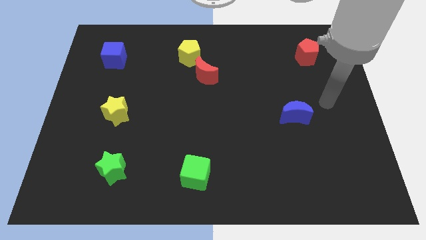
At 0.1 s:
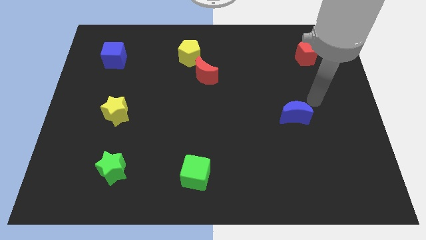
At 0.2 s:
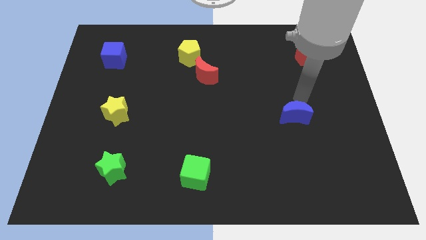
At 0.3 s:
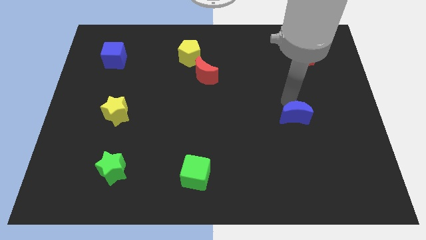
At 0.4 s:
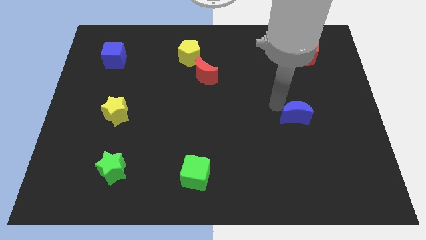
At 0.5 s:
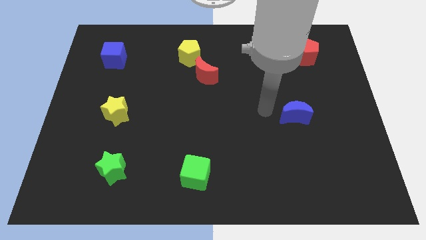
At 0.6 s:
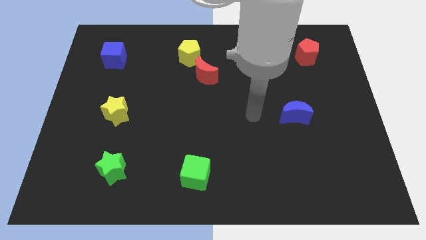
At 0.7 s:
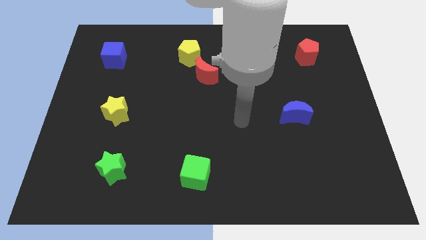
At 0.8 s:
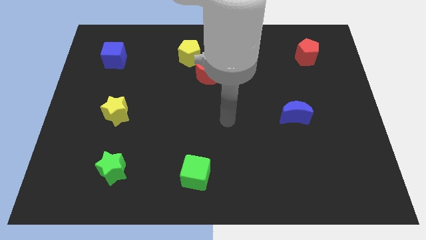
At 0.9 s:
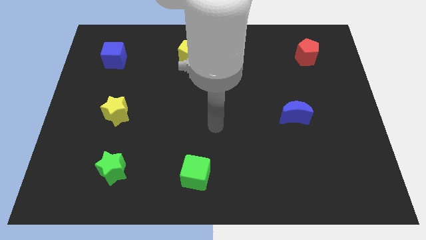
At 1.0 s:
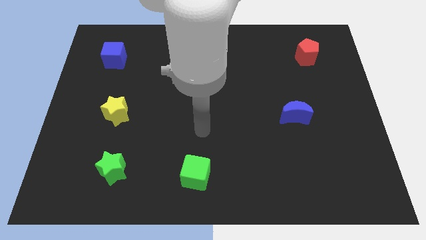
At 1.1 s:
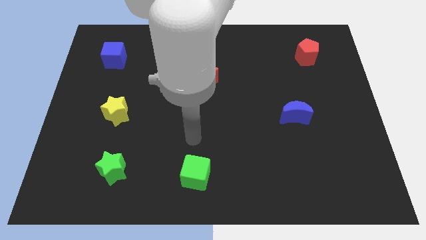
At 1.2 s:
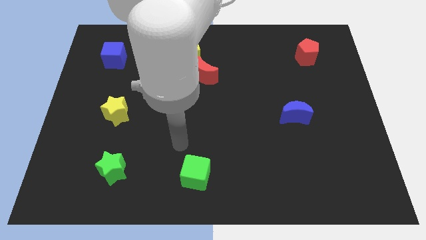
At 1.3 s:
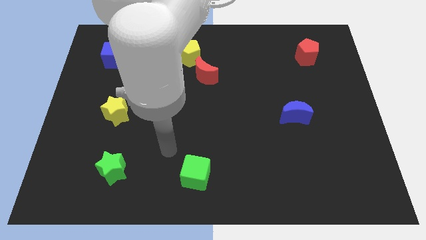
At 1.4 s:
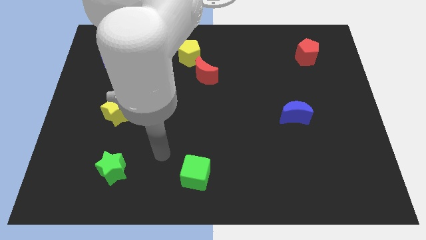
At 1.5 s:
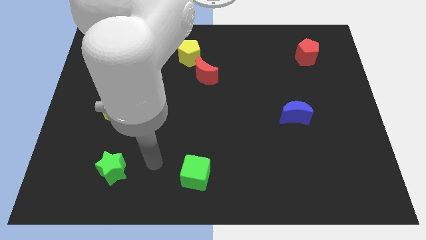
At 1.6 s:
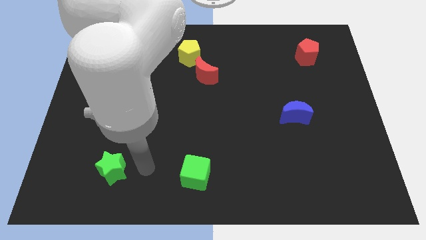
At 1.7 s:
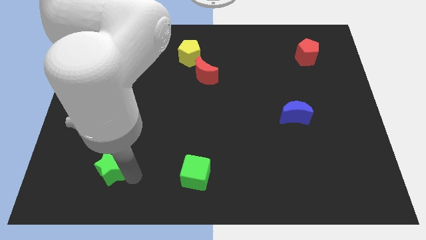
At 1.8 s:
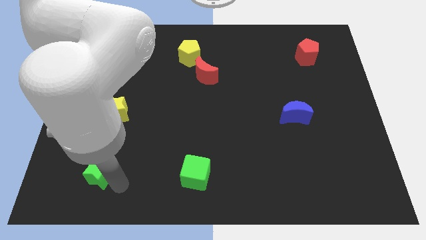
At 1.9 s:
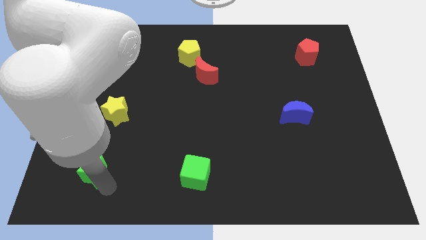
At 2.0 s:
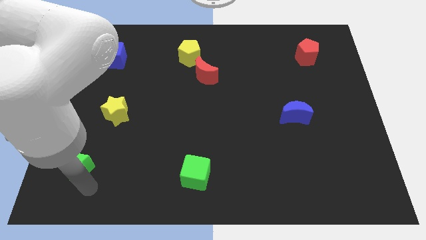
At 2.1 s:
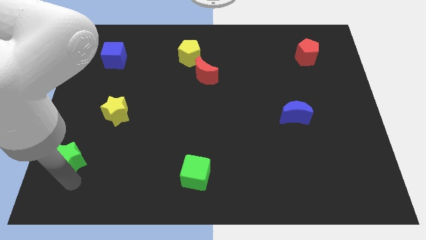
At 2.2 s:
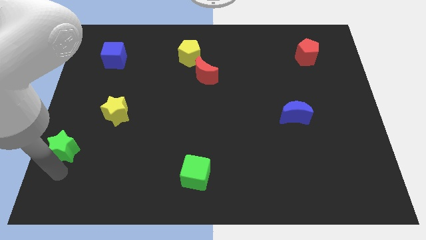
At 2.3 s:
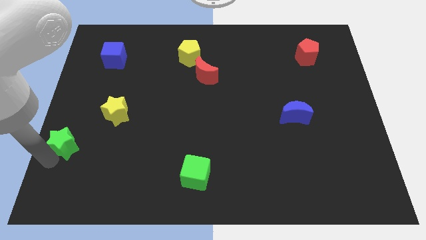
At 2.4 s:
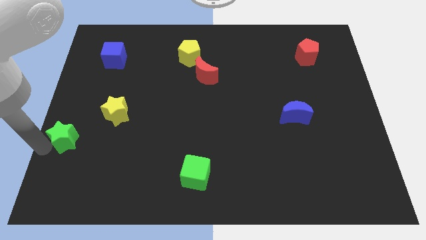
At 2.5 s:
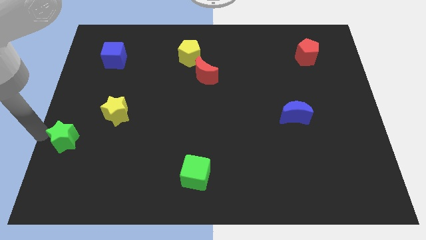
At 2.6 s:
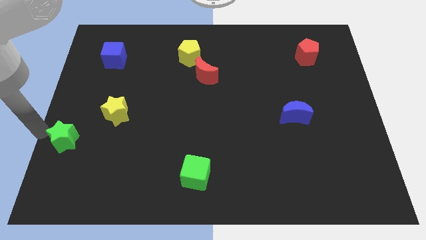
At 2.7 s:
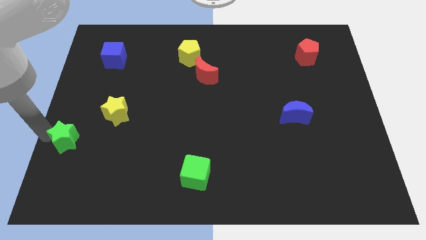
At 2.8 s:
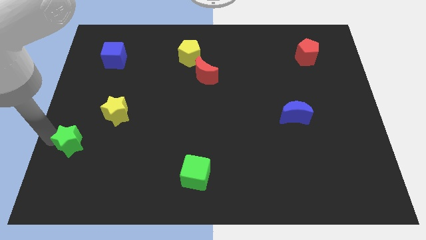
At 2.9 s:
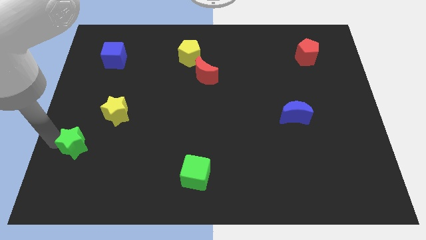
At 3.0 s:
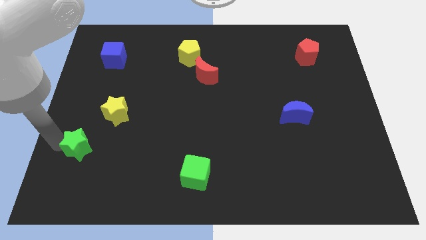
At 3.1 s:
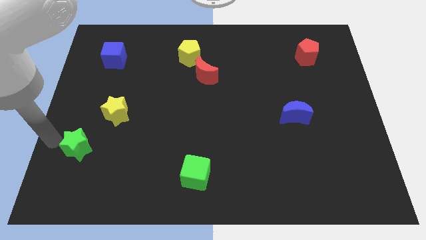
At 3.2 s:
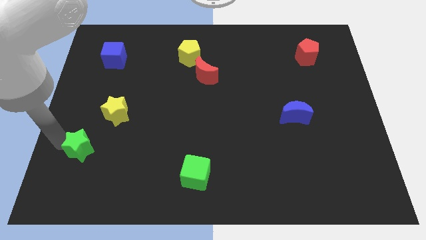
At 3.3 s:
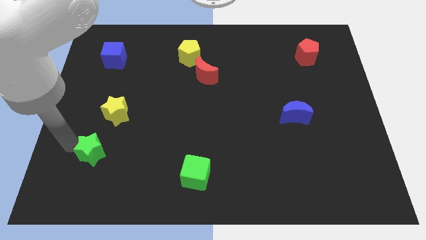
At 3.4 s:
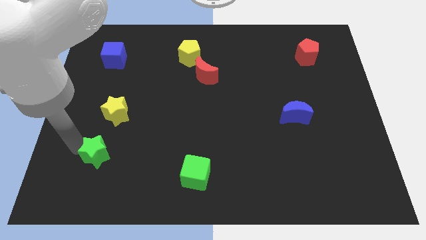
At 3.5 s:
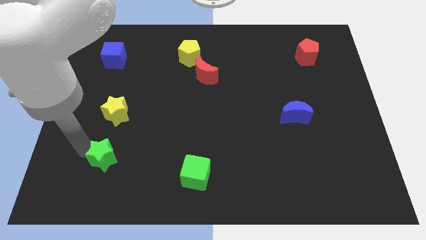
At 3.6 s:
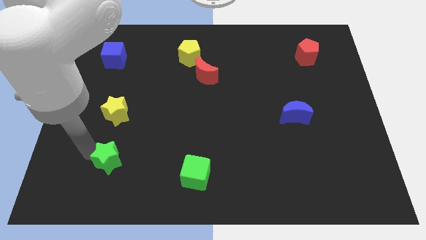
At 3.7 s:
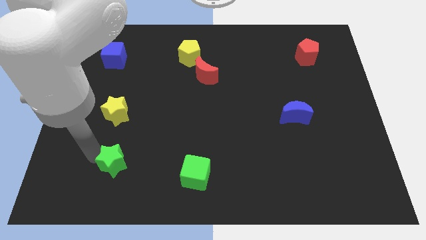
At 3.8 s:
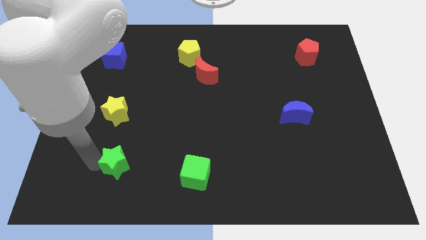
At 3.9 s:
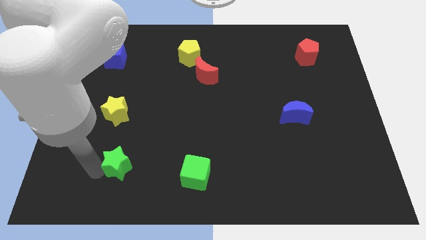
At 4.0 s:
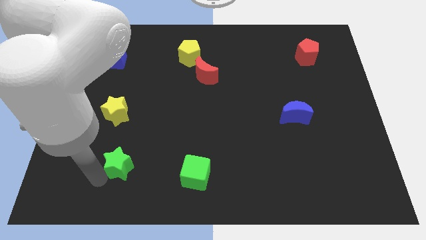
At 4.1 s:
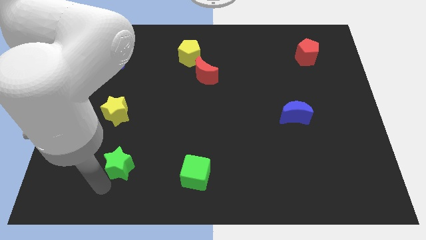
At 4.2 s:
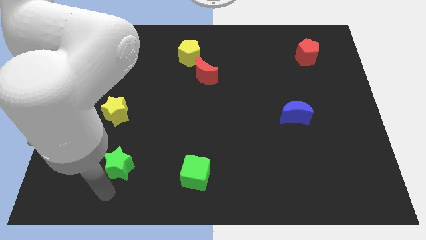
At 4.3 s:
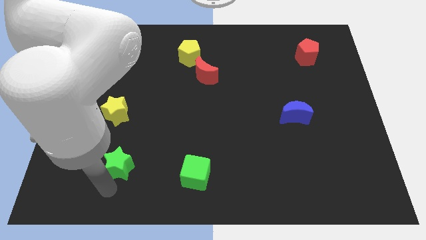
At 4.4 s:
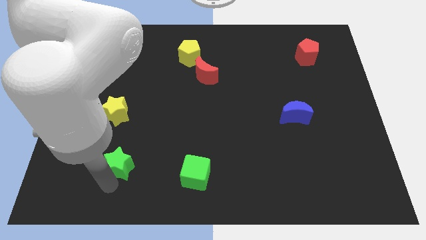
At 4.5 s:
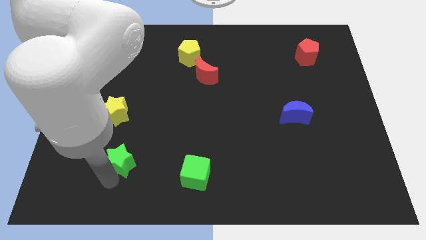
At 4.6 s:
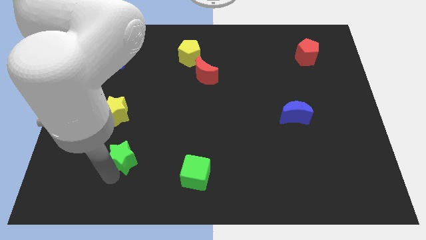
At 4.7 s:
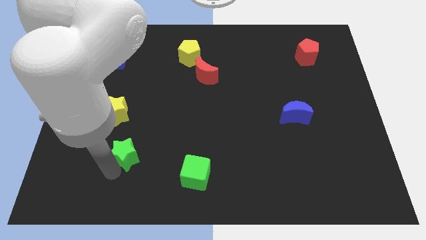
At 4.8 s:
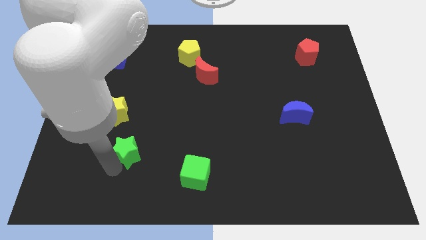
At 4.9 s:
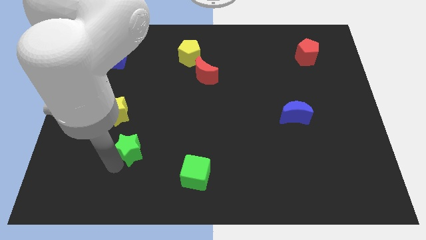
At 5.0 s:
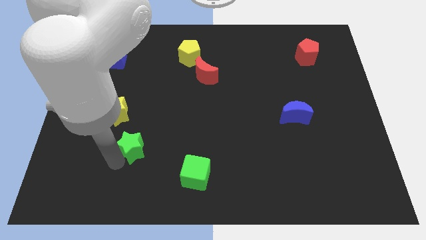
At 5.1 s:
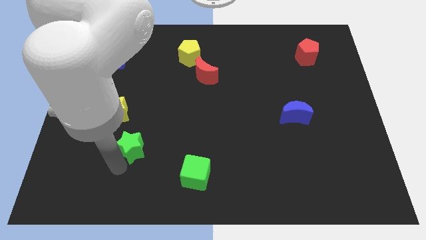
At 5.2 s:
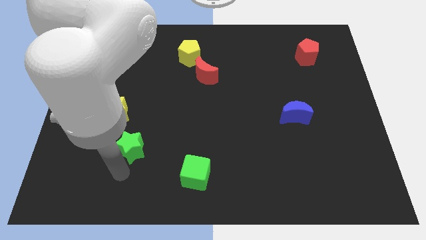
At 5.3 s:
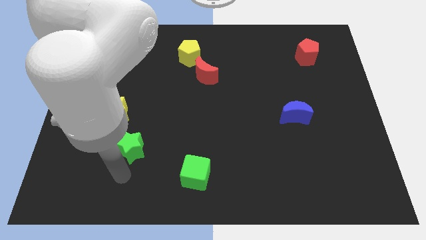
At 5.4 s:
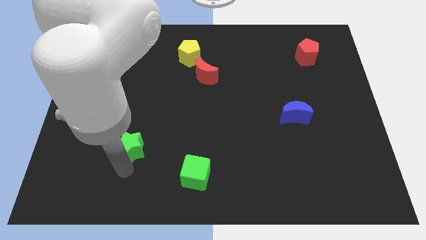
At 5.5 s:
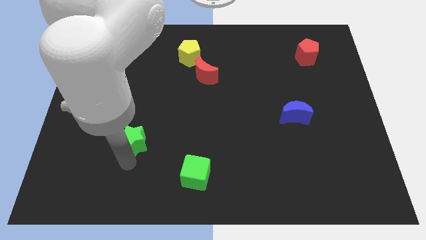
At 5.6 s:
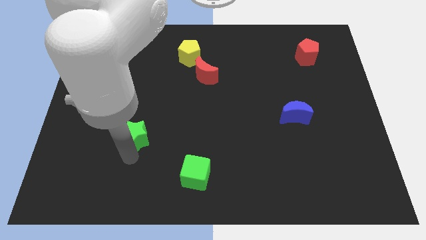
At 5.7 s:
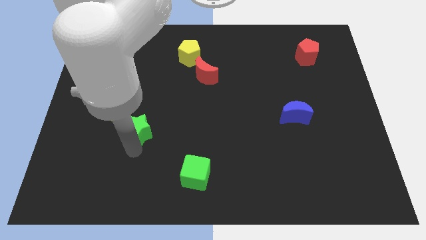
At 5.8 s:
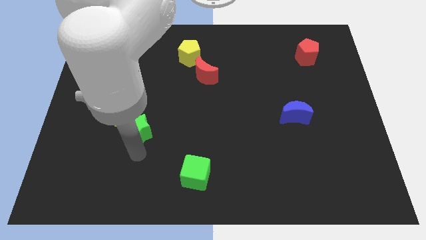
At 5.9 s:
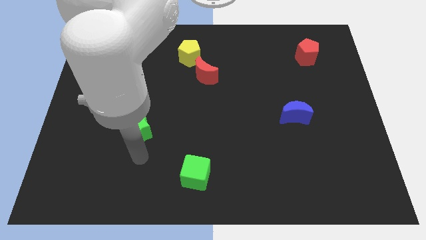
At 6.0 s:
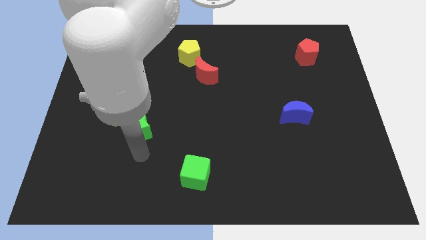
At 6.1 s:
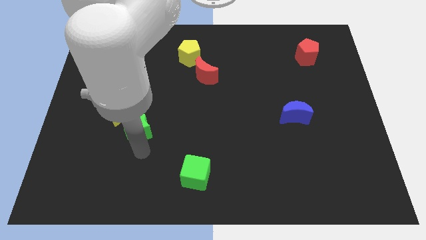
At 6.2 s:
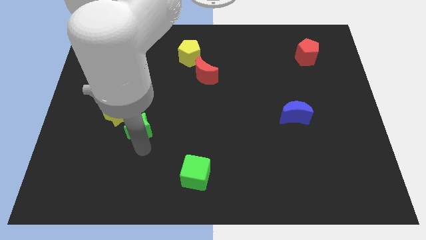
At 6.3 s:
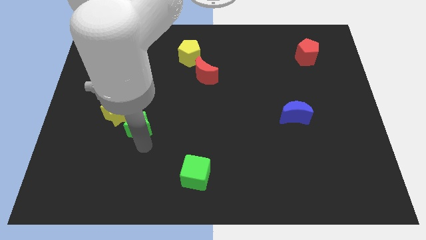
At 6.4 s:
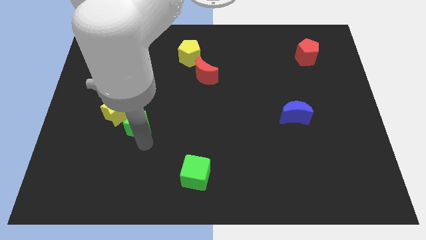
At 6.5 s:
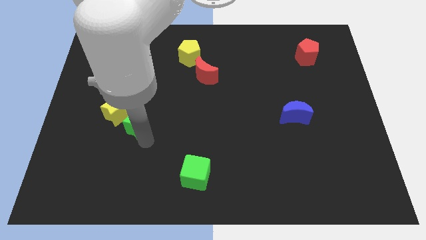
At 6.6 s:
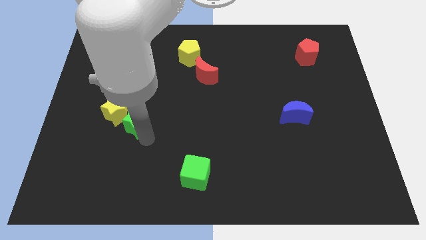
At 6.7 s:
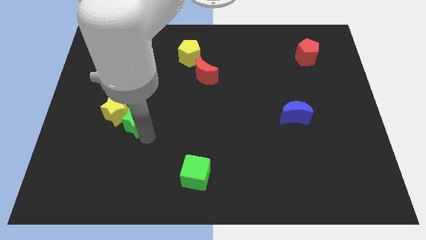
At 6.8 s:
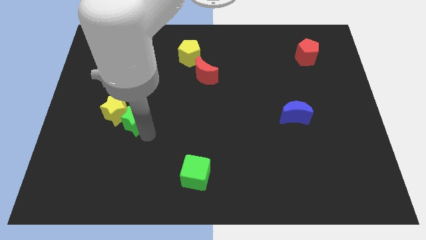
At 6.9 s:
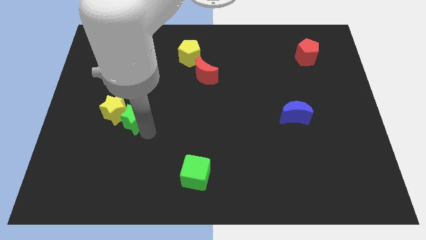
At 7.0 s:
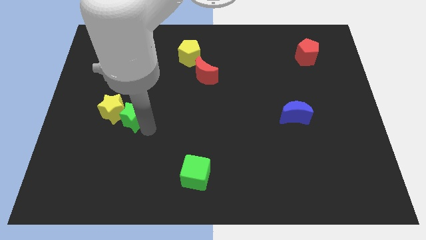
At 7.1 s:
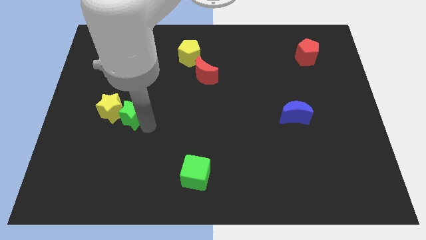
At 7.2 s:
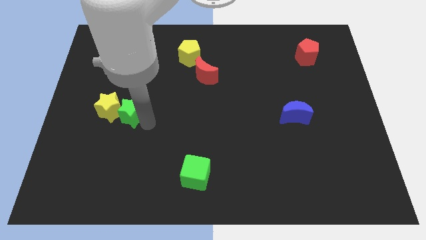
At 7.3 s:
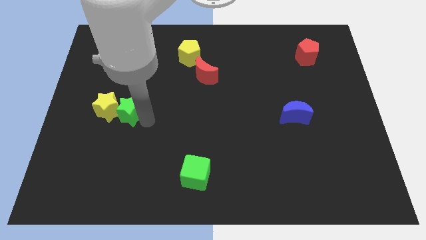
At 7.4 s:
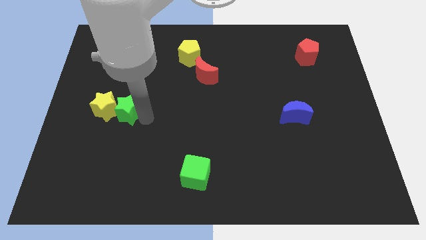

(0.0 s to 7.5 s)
move the green star to the top right of the yellow star

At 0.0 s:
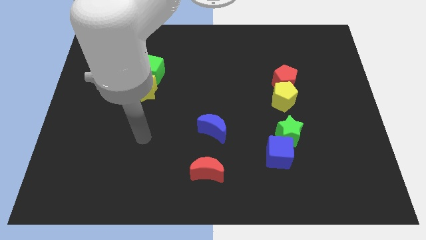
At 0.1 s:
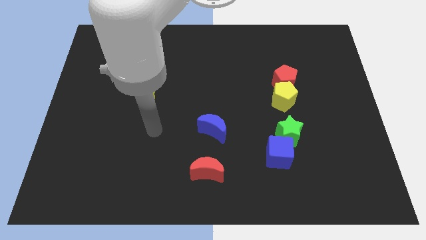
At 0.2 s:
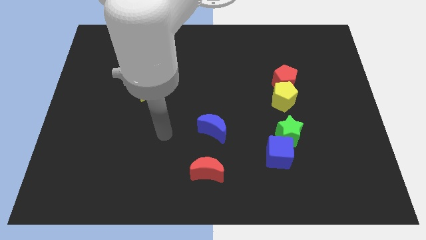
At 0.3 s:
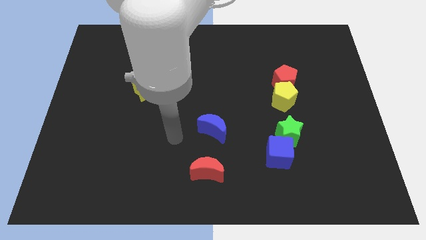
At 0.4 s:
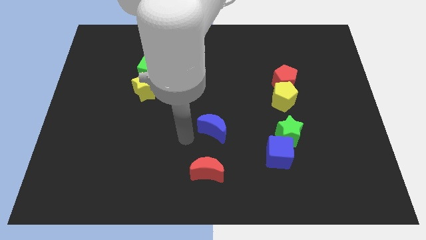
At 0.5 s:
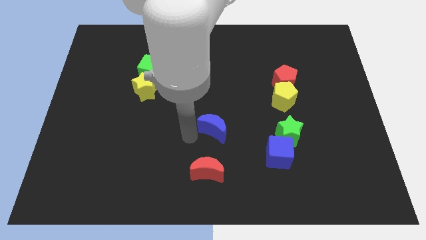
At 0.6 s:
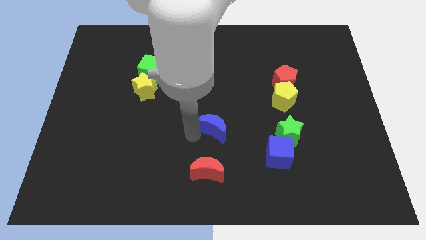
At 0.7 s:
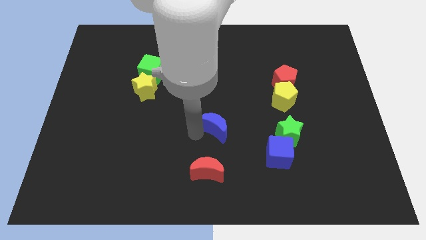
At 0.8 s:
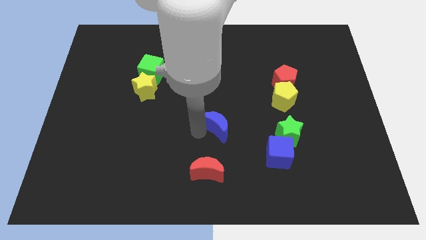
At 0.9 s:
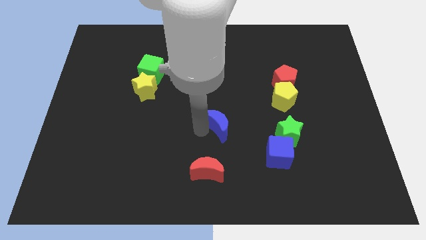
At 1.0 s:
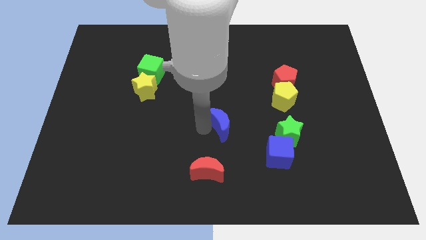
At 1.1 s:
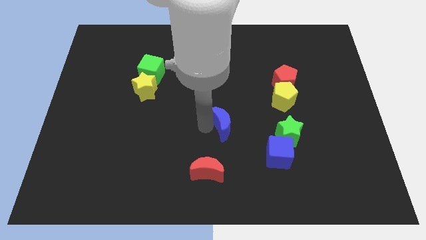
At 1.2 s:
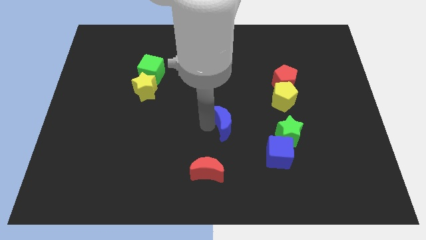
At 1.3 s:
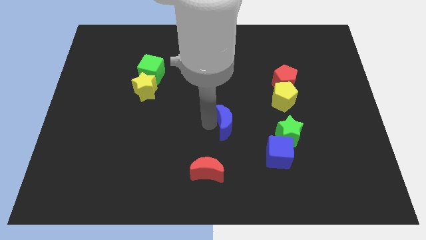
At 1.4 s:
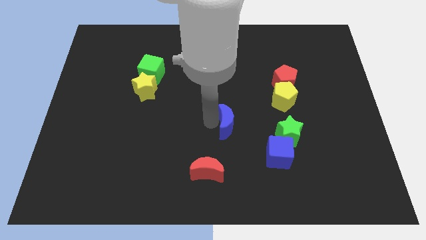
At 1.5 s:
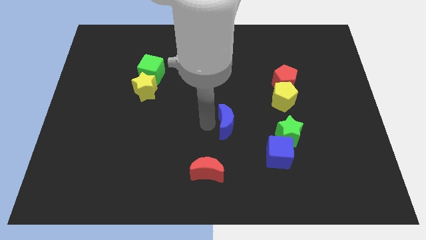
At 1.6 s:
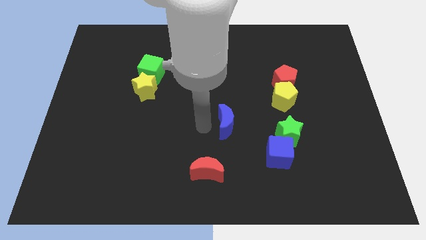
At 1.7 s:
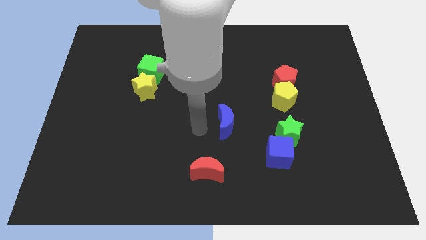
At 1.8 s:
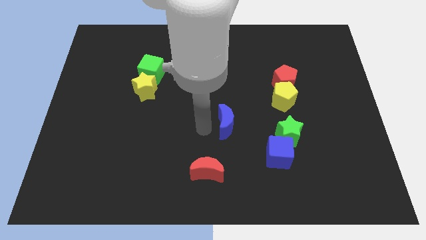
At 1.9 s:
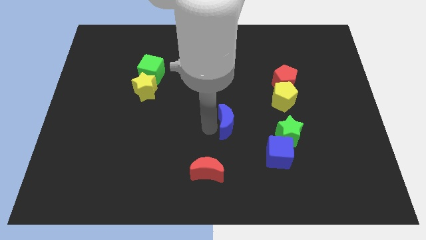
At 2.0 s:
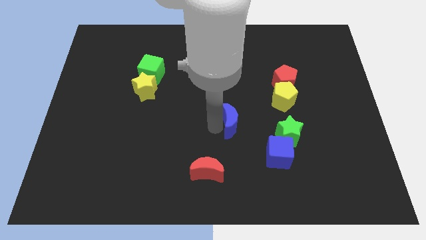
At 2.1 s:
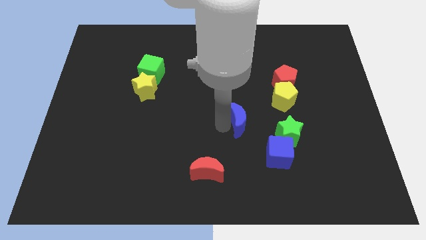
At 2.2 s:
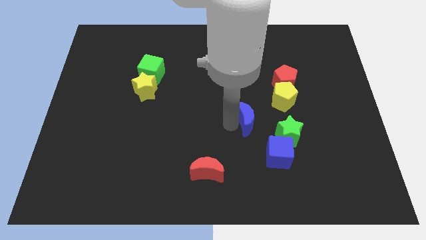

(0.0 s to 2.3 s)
put the blue moon to the top left of the green star
